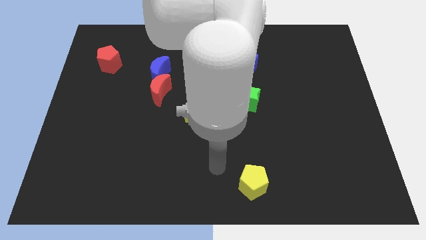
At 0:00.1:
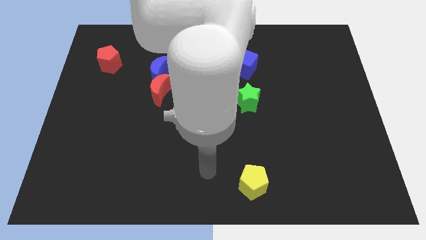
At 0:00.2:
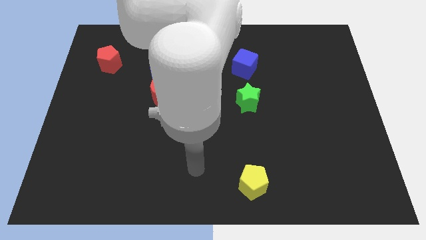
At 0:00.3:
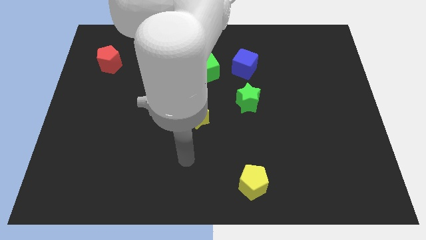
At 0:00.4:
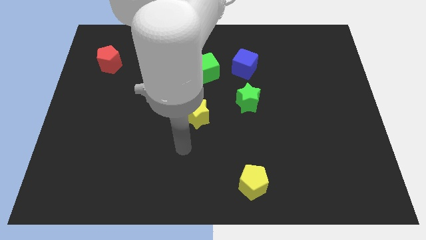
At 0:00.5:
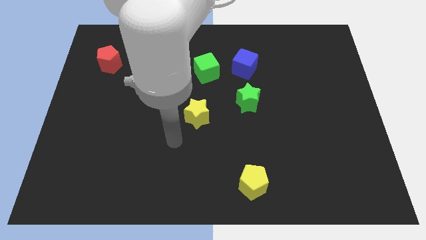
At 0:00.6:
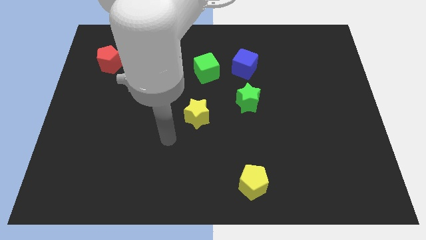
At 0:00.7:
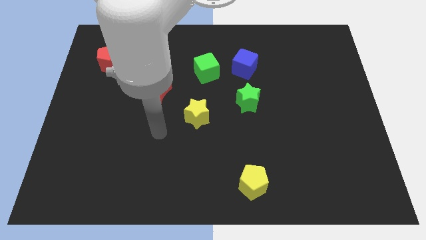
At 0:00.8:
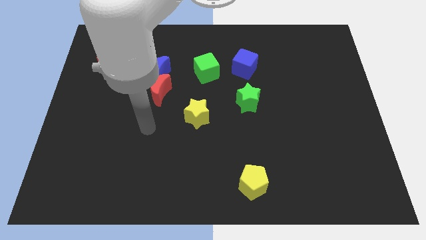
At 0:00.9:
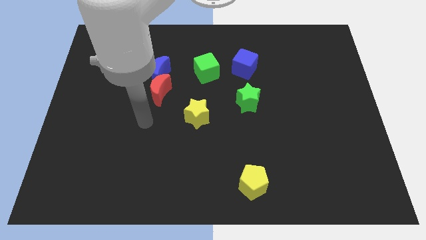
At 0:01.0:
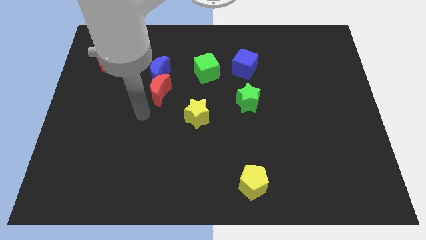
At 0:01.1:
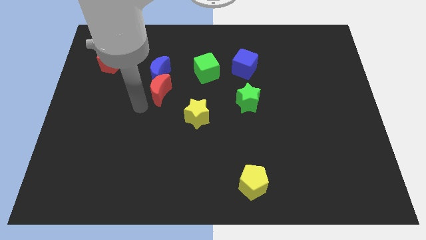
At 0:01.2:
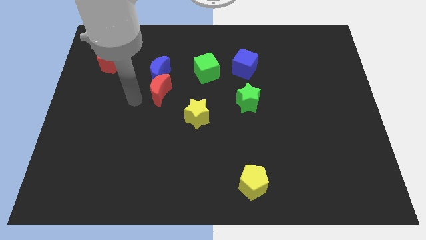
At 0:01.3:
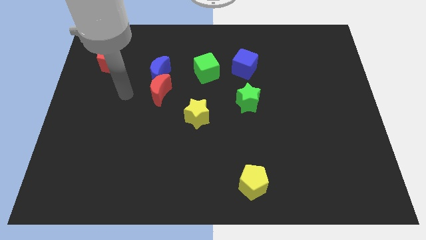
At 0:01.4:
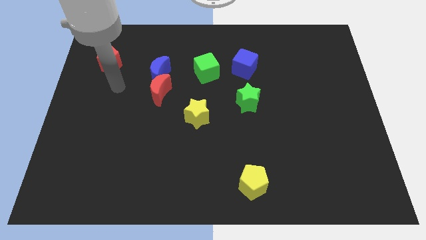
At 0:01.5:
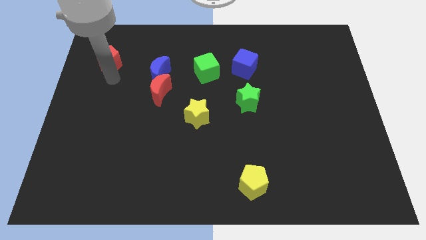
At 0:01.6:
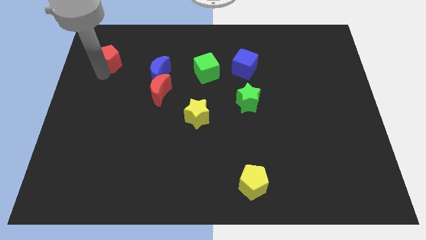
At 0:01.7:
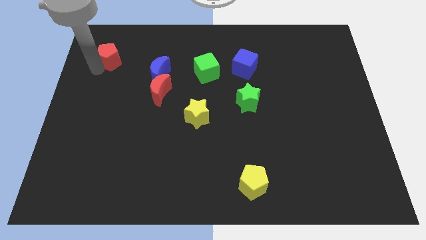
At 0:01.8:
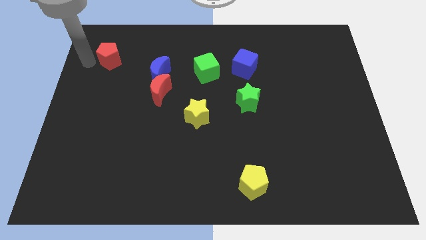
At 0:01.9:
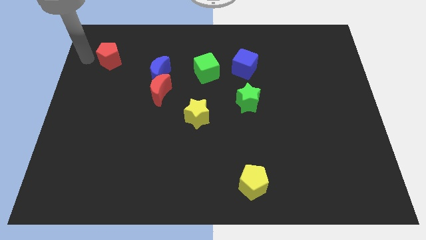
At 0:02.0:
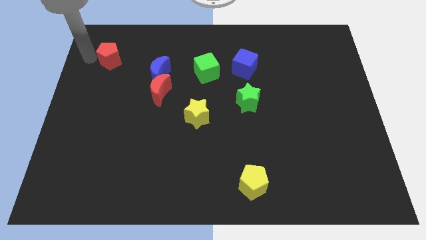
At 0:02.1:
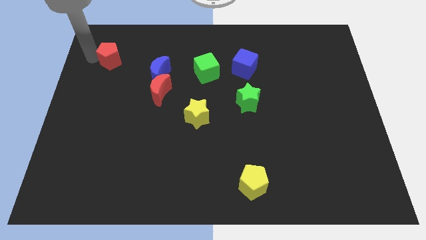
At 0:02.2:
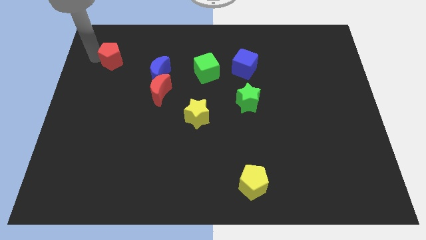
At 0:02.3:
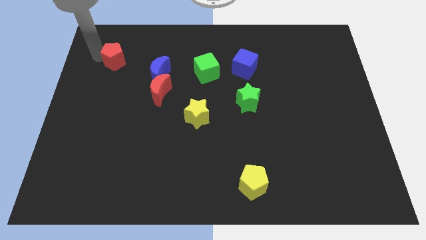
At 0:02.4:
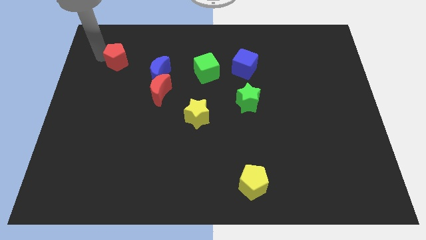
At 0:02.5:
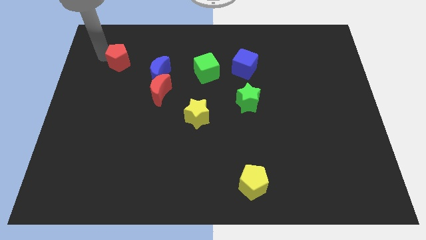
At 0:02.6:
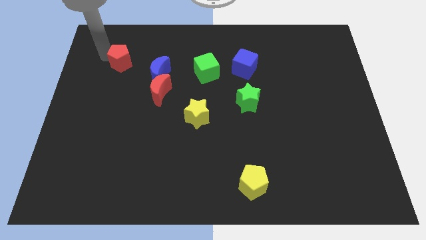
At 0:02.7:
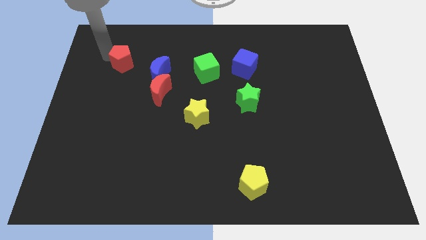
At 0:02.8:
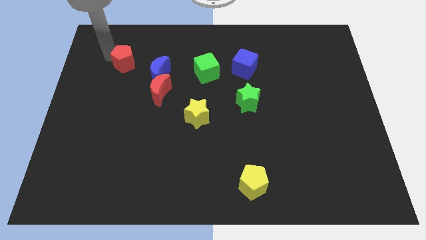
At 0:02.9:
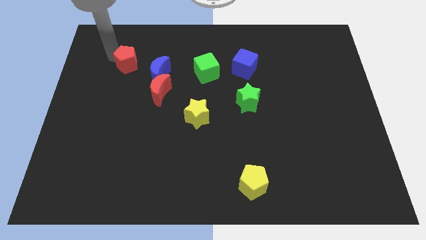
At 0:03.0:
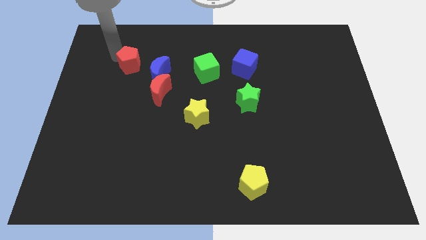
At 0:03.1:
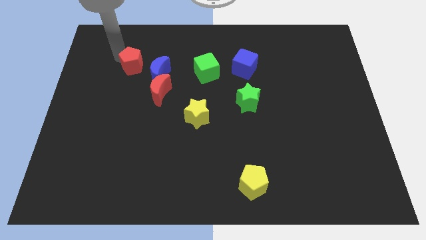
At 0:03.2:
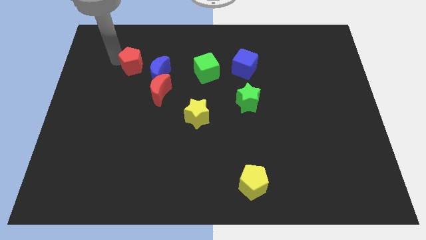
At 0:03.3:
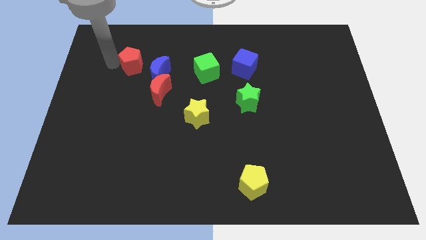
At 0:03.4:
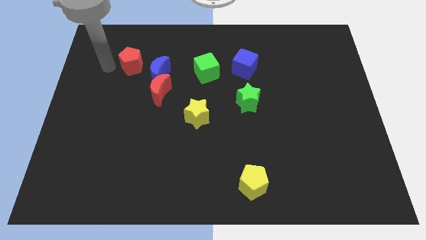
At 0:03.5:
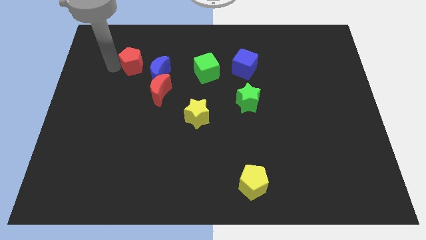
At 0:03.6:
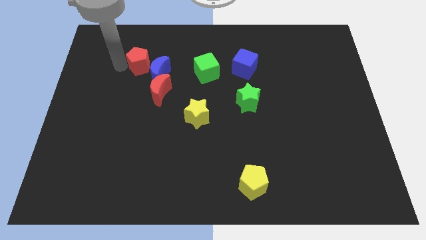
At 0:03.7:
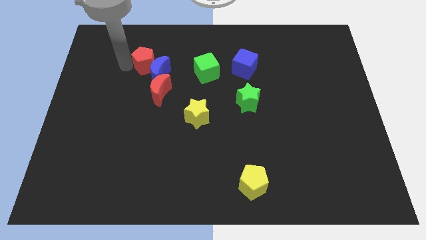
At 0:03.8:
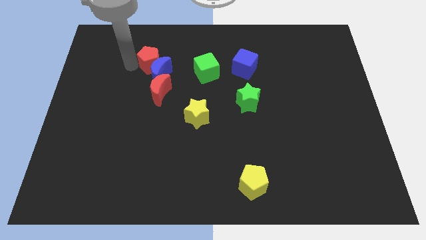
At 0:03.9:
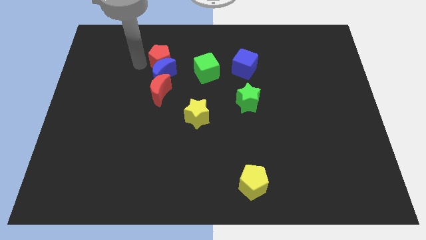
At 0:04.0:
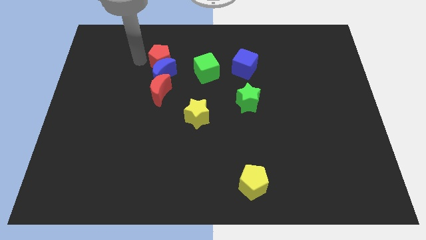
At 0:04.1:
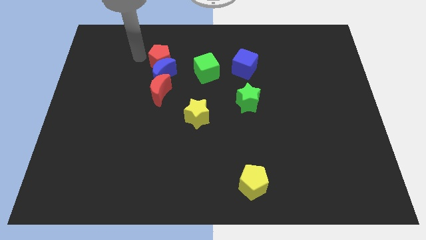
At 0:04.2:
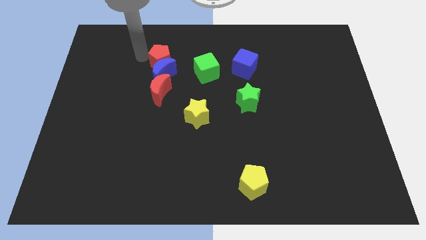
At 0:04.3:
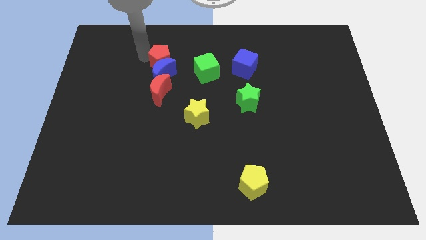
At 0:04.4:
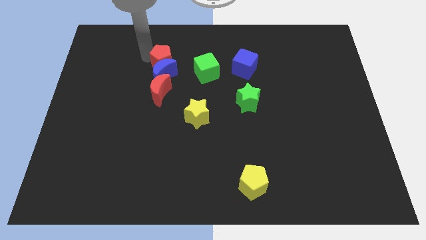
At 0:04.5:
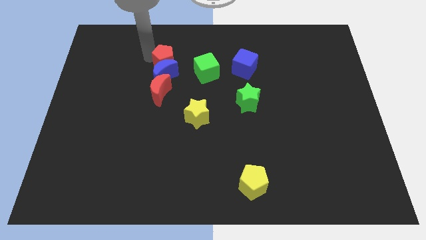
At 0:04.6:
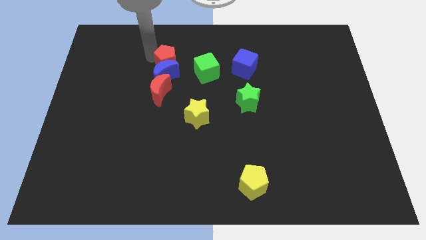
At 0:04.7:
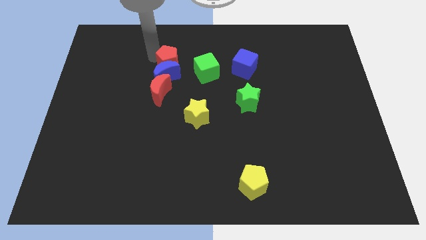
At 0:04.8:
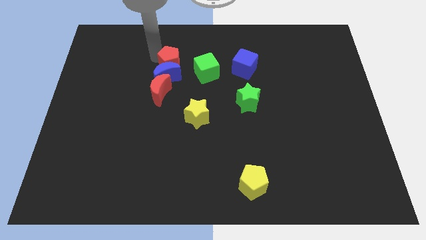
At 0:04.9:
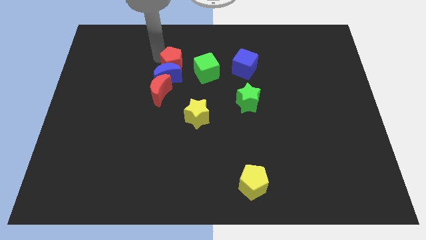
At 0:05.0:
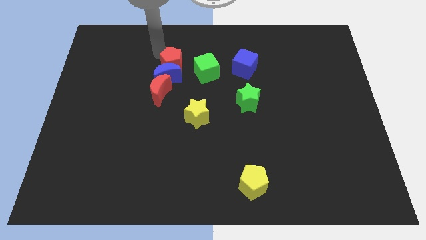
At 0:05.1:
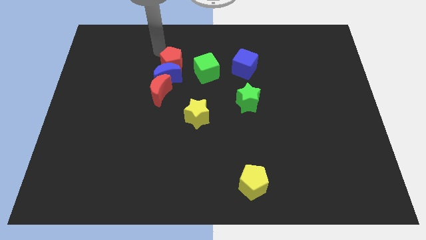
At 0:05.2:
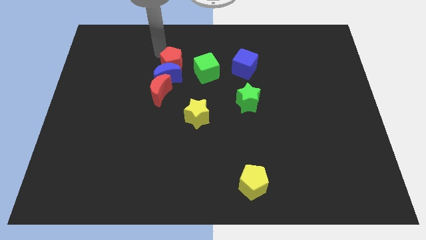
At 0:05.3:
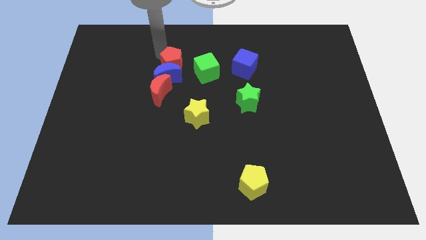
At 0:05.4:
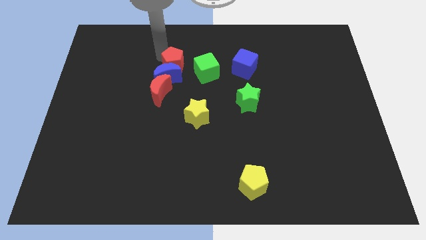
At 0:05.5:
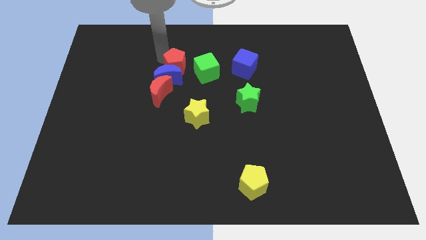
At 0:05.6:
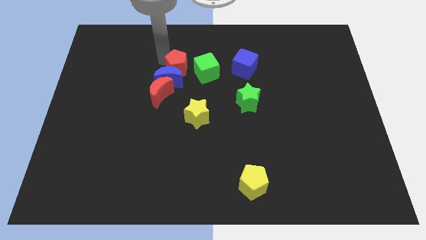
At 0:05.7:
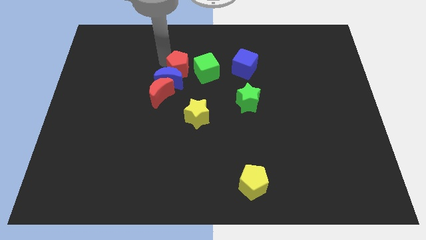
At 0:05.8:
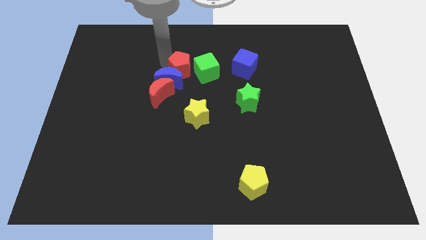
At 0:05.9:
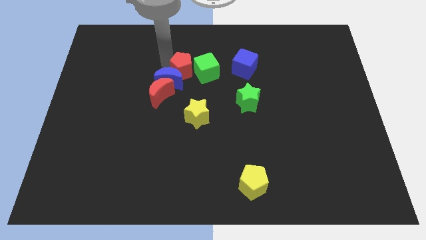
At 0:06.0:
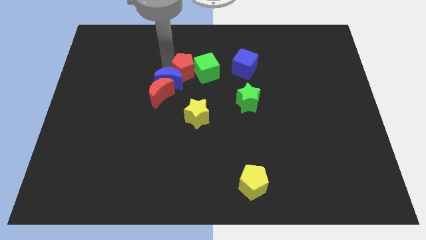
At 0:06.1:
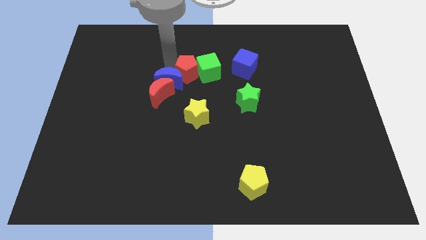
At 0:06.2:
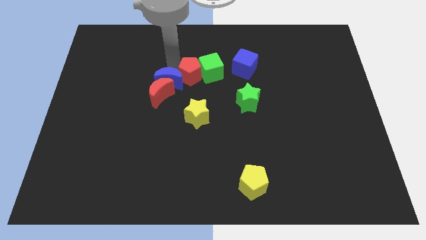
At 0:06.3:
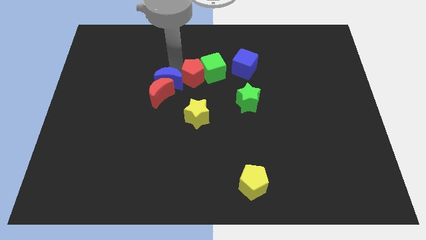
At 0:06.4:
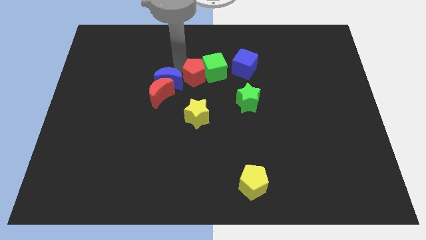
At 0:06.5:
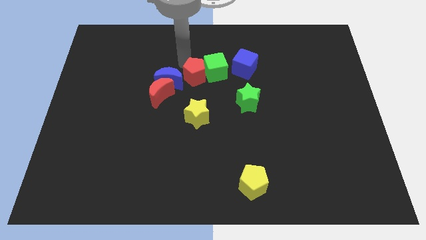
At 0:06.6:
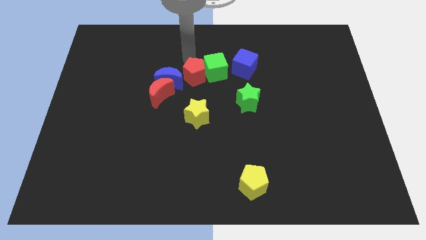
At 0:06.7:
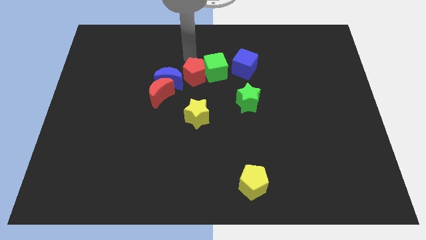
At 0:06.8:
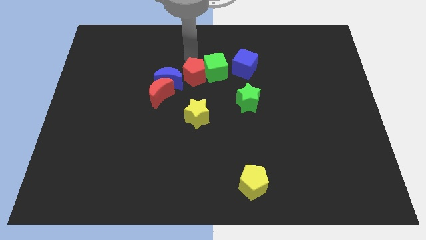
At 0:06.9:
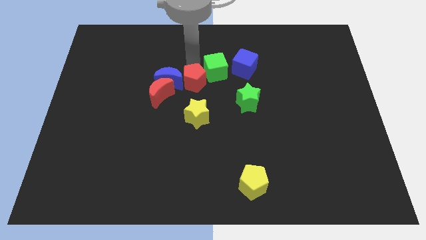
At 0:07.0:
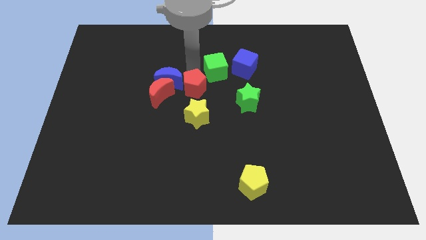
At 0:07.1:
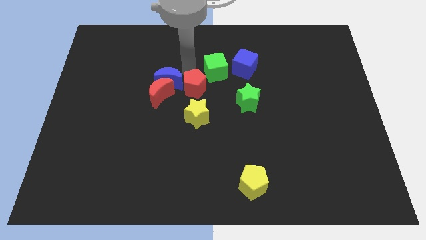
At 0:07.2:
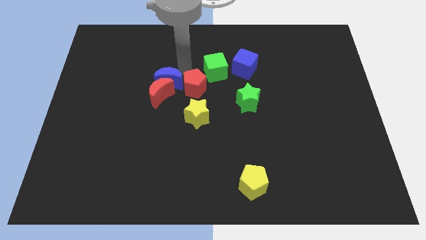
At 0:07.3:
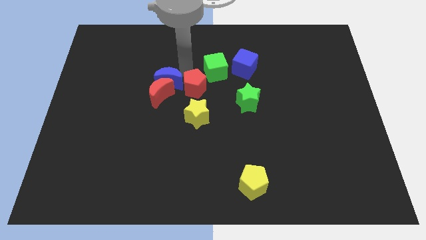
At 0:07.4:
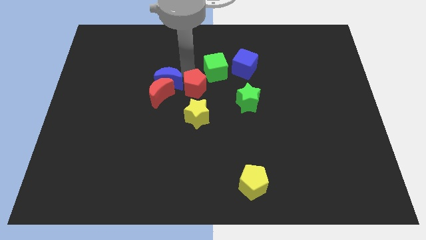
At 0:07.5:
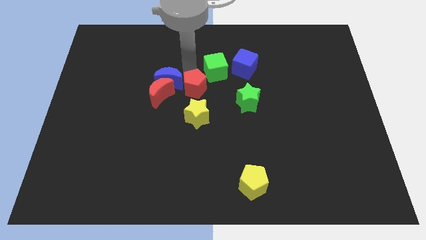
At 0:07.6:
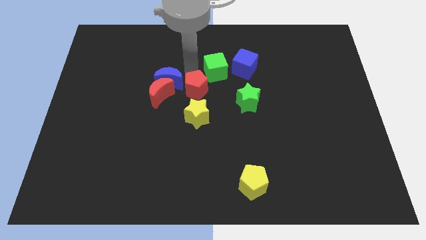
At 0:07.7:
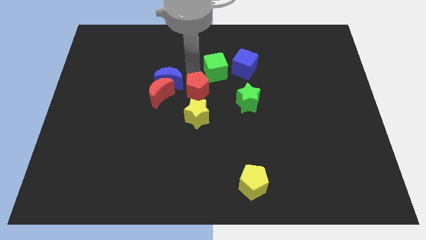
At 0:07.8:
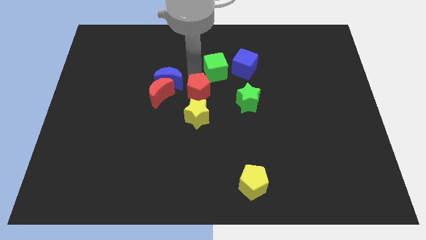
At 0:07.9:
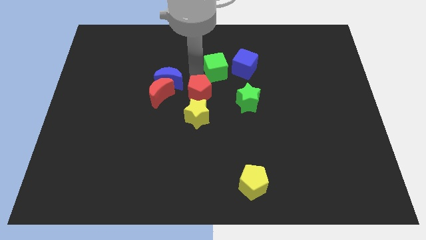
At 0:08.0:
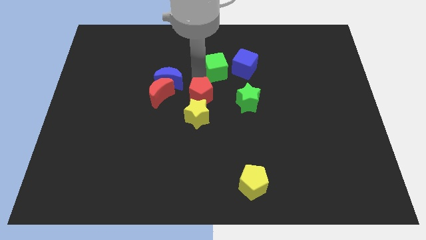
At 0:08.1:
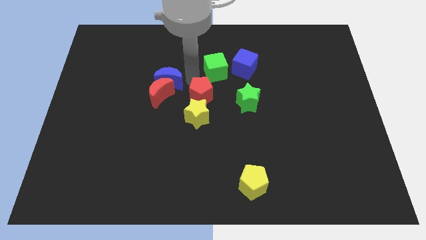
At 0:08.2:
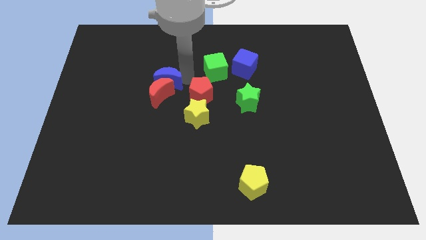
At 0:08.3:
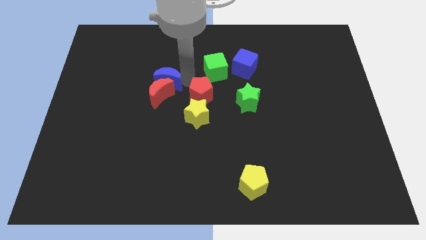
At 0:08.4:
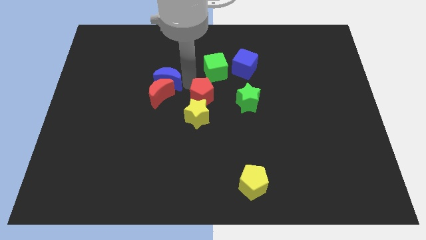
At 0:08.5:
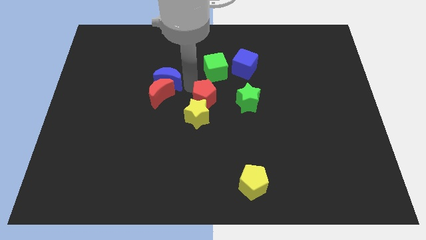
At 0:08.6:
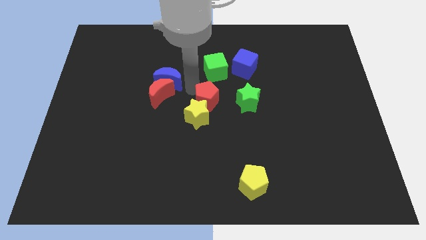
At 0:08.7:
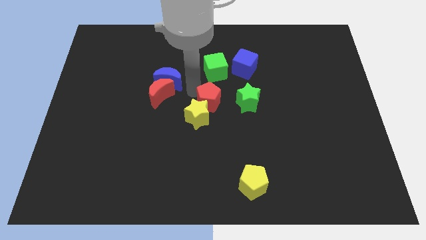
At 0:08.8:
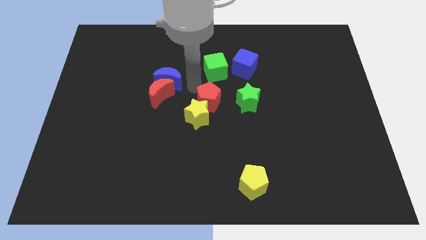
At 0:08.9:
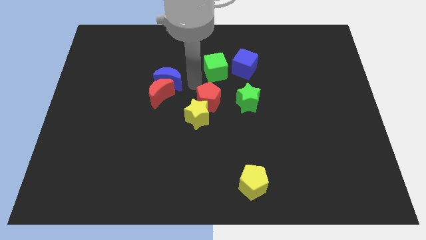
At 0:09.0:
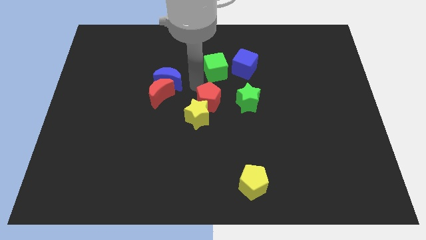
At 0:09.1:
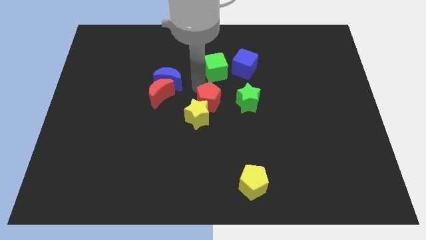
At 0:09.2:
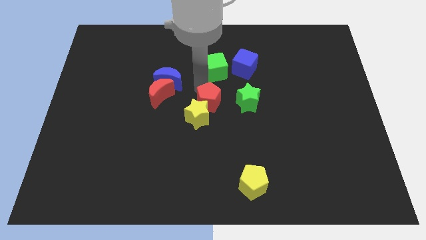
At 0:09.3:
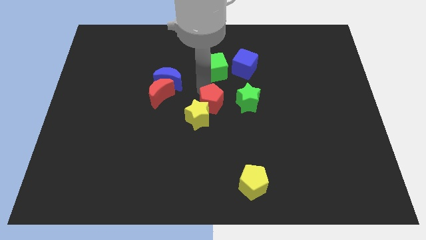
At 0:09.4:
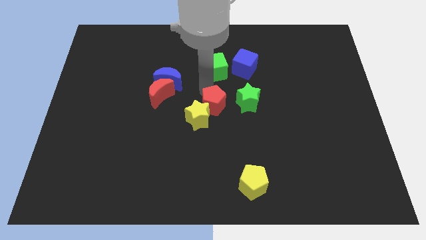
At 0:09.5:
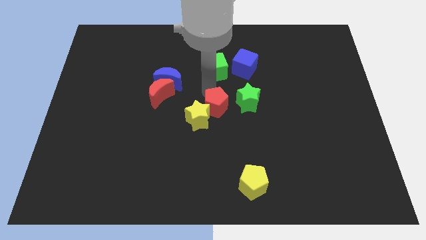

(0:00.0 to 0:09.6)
push the red pentagon to the bottom left side of the green star
